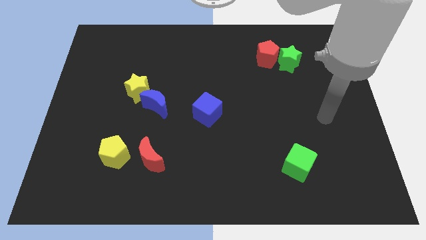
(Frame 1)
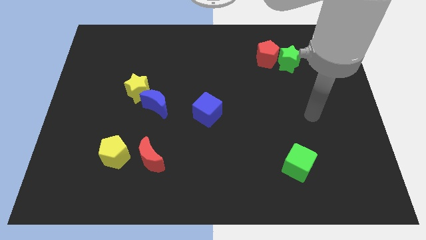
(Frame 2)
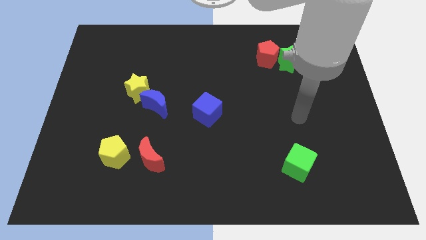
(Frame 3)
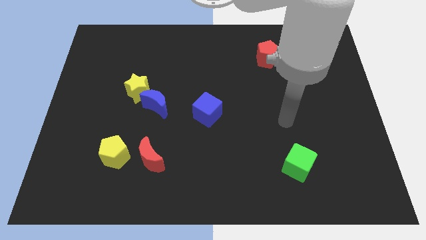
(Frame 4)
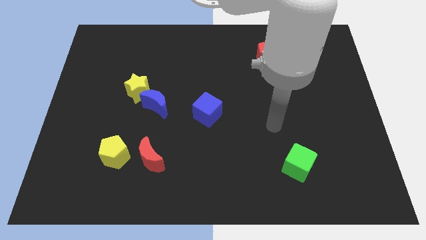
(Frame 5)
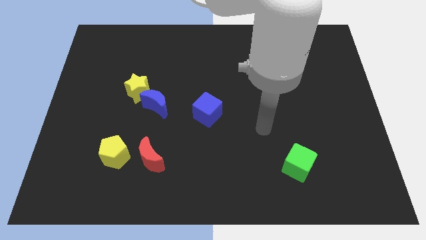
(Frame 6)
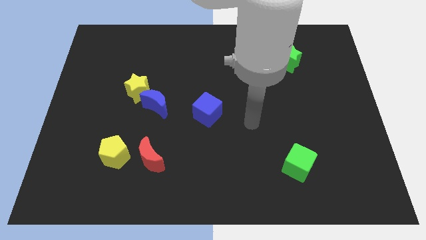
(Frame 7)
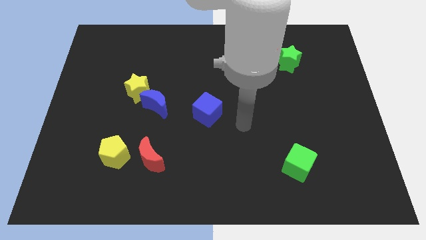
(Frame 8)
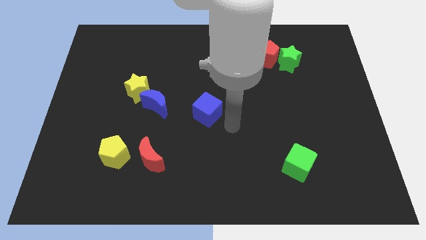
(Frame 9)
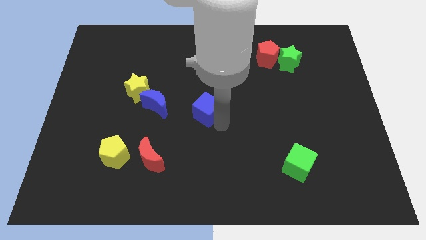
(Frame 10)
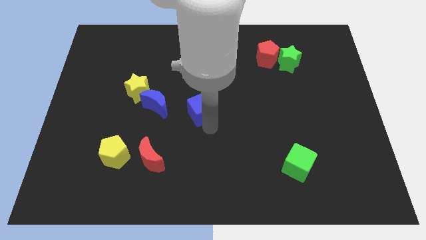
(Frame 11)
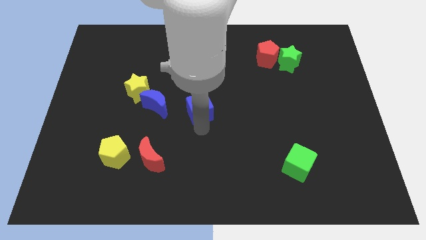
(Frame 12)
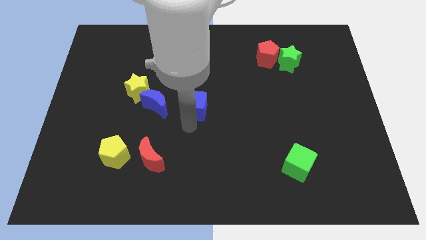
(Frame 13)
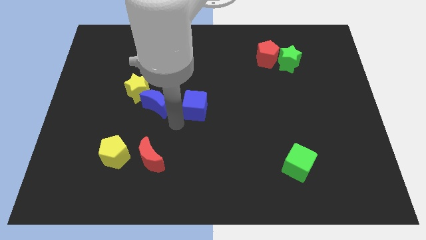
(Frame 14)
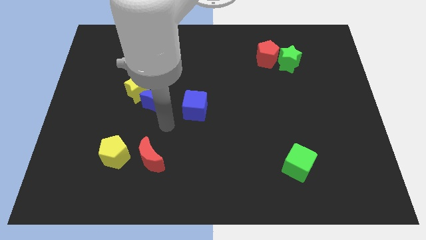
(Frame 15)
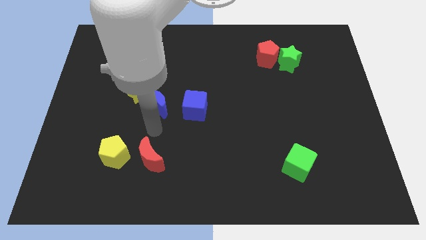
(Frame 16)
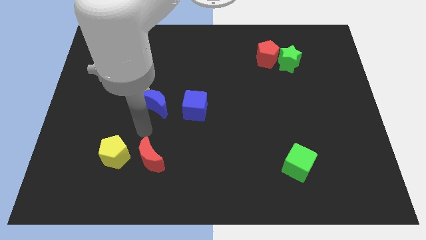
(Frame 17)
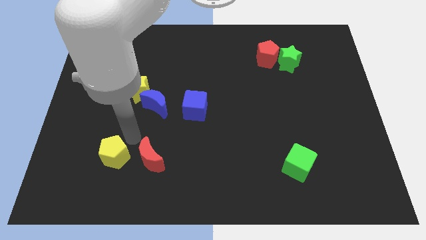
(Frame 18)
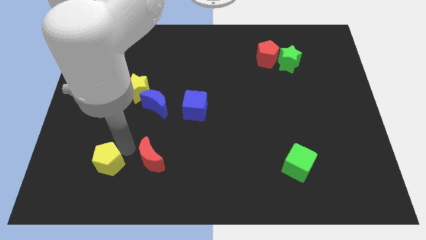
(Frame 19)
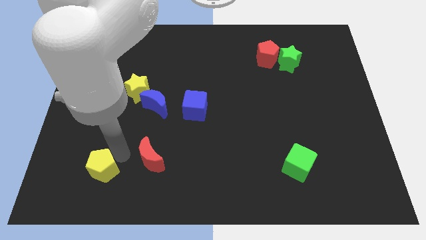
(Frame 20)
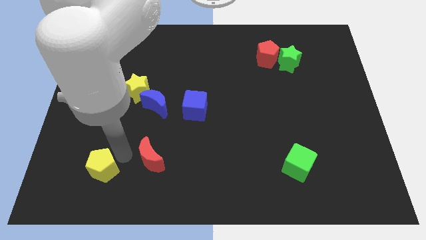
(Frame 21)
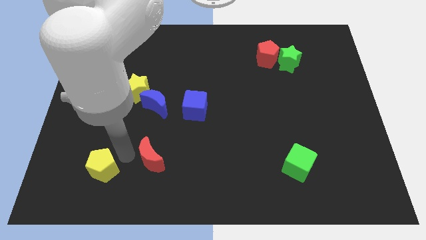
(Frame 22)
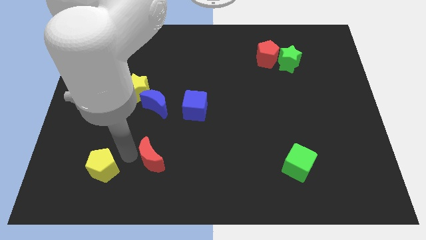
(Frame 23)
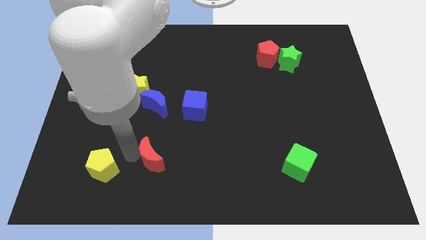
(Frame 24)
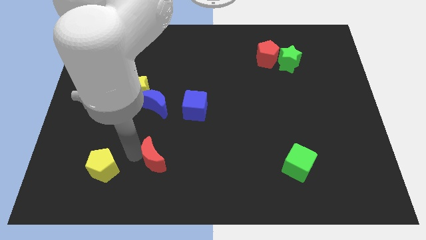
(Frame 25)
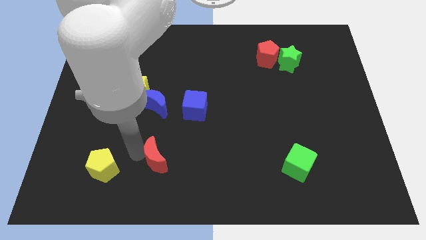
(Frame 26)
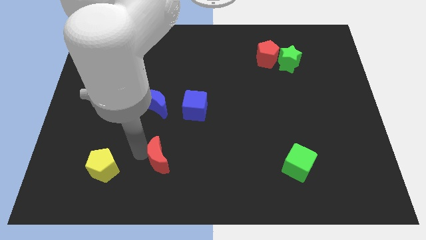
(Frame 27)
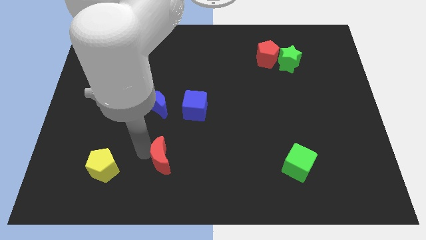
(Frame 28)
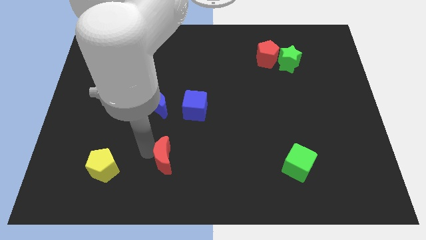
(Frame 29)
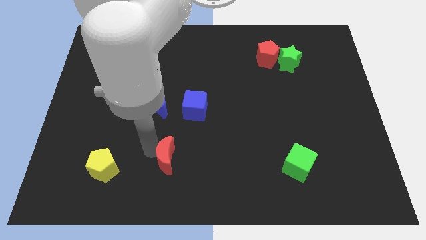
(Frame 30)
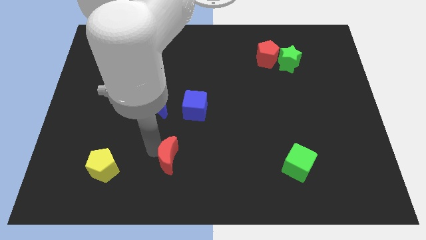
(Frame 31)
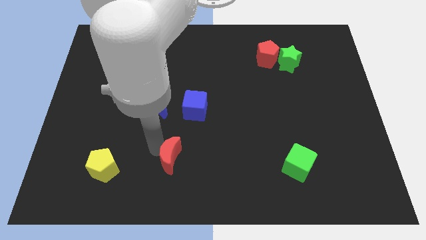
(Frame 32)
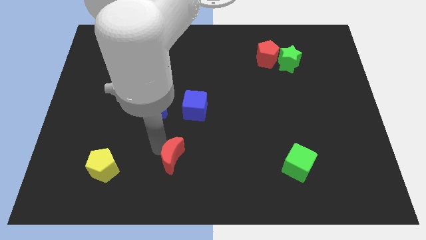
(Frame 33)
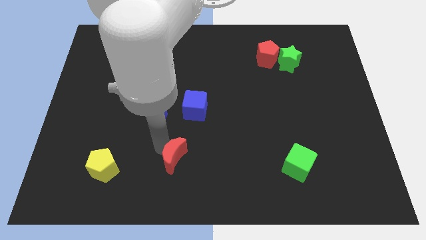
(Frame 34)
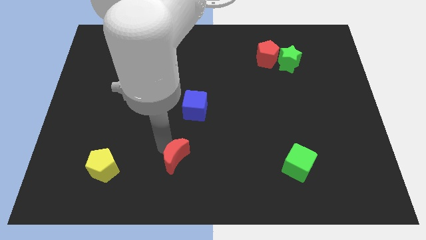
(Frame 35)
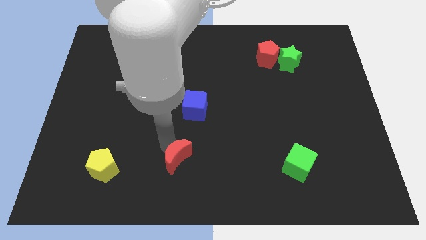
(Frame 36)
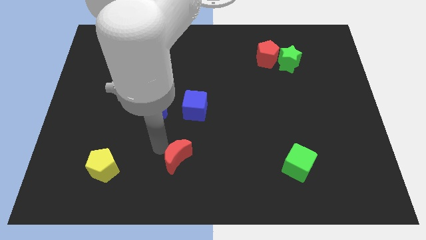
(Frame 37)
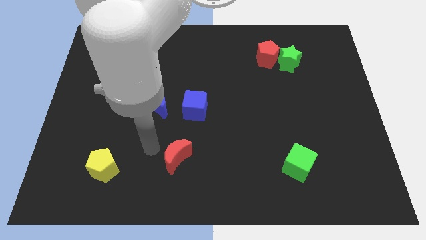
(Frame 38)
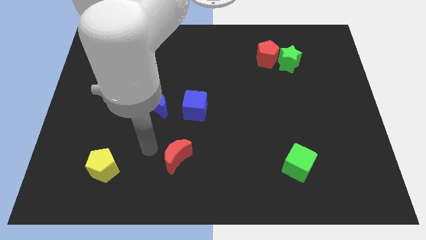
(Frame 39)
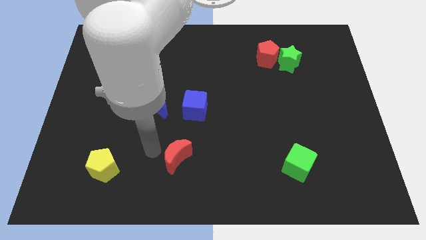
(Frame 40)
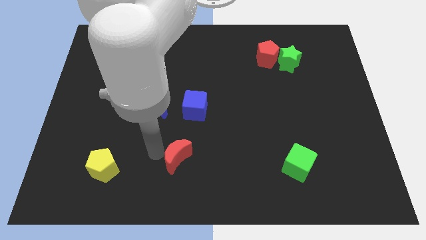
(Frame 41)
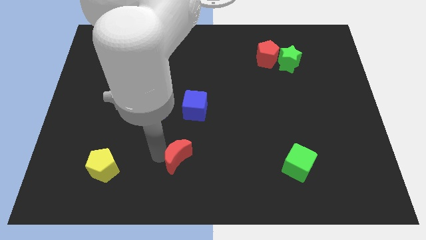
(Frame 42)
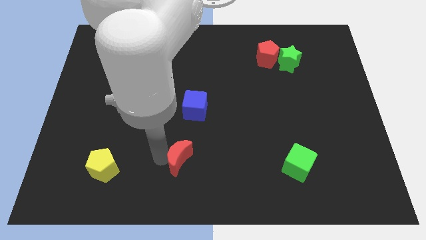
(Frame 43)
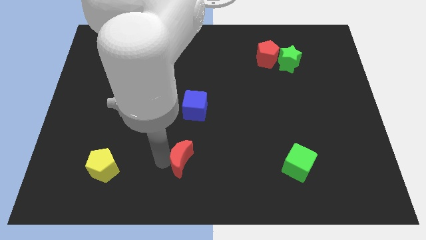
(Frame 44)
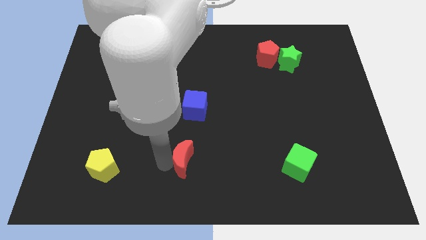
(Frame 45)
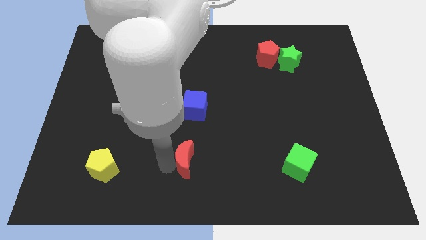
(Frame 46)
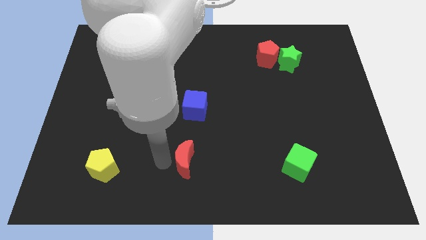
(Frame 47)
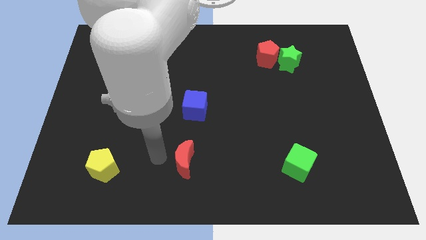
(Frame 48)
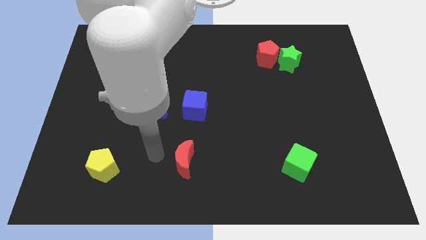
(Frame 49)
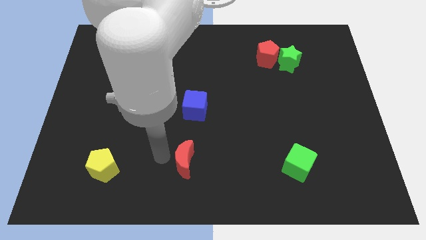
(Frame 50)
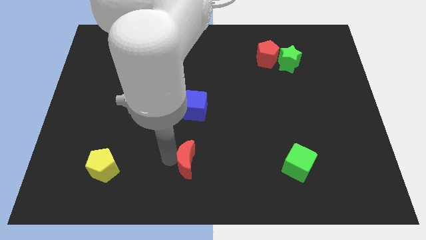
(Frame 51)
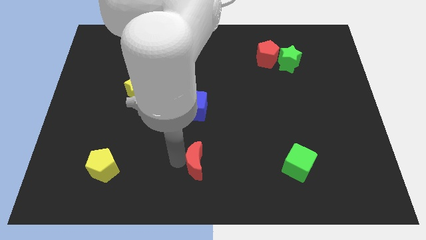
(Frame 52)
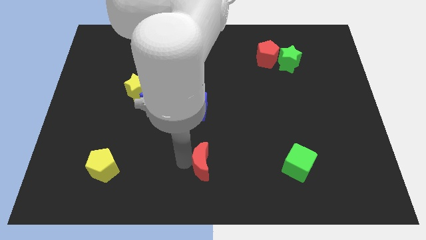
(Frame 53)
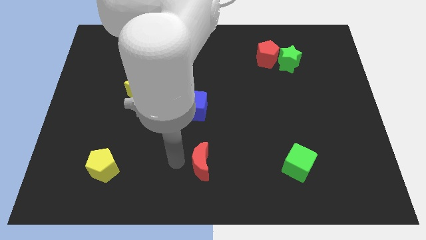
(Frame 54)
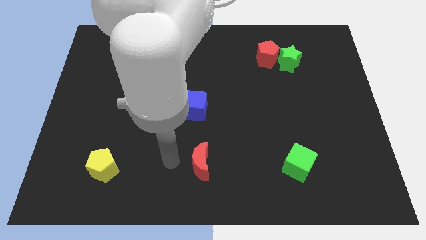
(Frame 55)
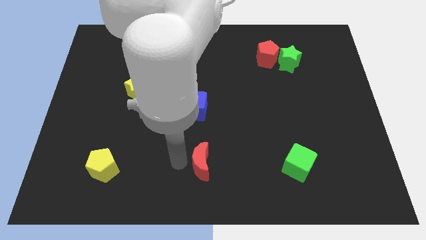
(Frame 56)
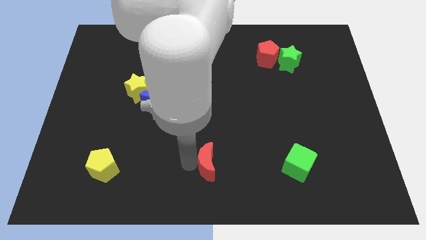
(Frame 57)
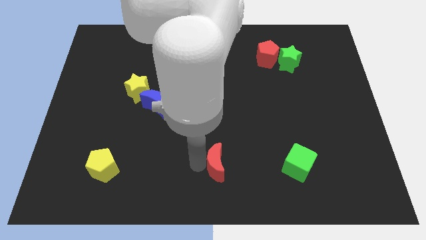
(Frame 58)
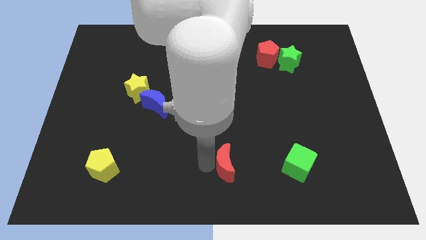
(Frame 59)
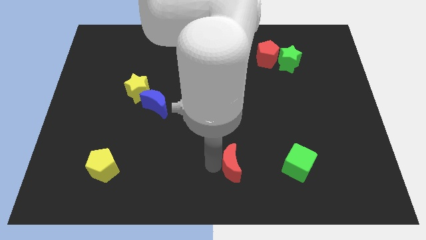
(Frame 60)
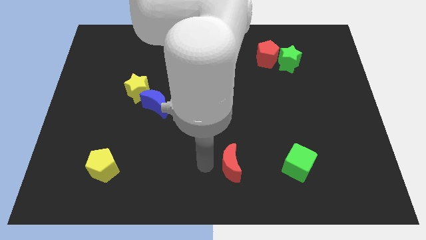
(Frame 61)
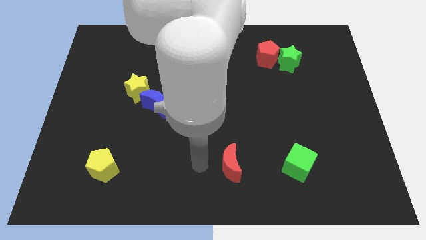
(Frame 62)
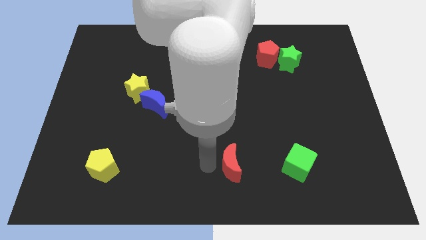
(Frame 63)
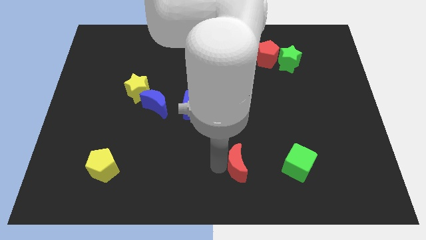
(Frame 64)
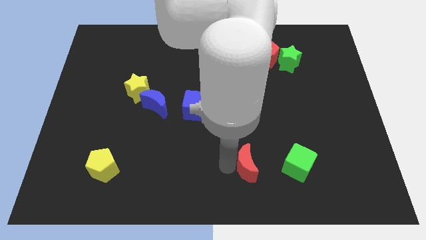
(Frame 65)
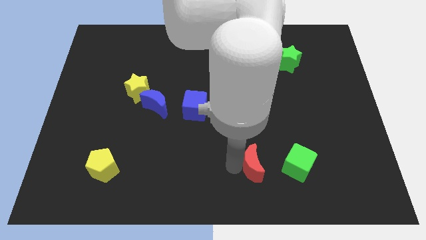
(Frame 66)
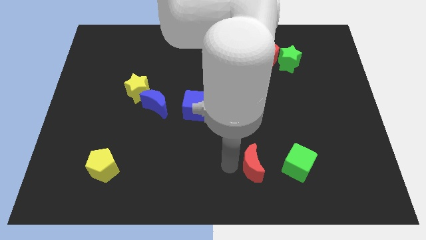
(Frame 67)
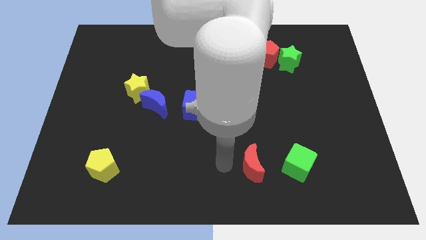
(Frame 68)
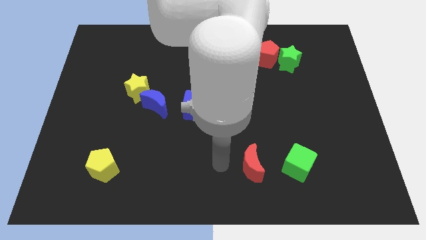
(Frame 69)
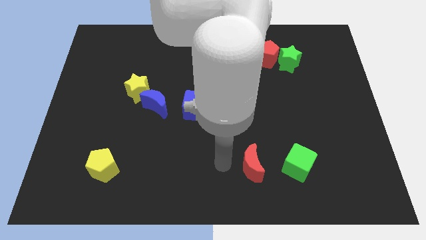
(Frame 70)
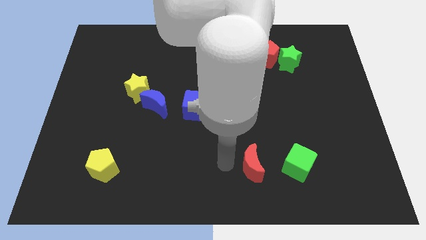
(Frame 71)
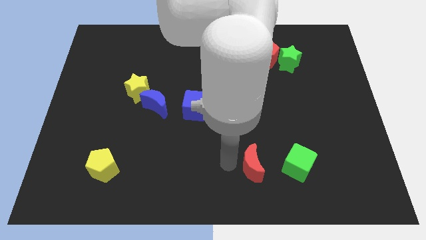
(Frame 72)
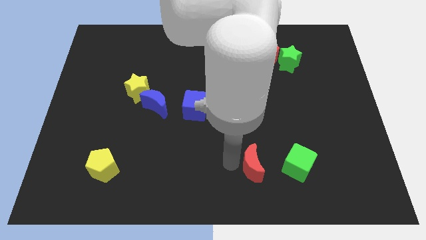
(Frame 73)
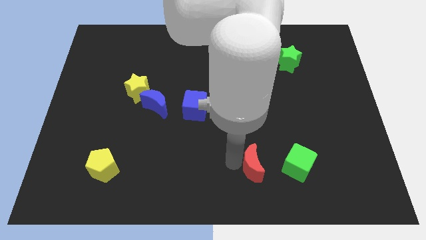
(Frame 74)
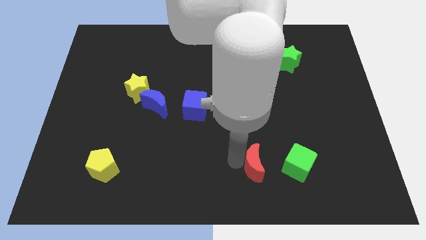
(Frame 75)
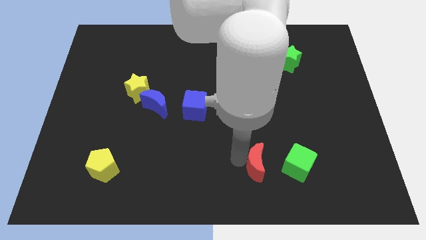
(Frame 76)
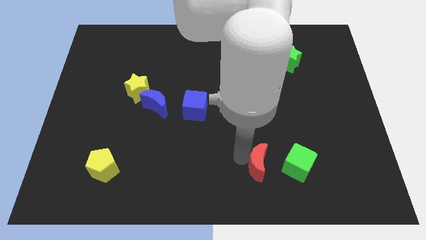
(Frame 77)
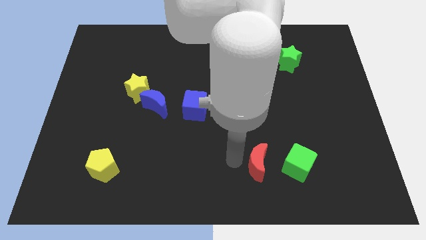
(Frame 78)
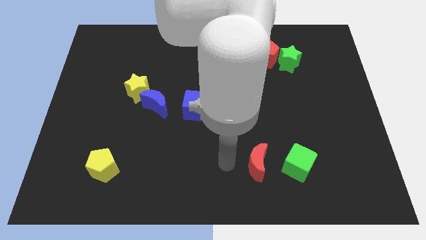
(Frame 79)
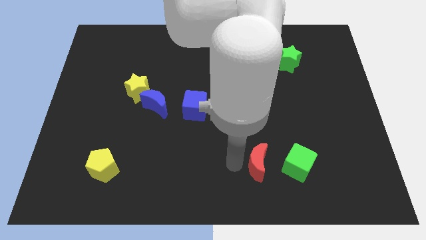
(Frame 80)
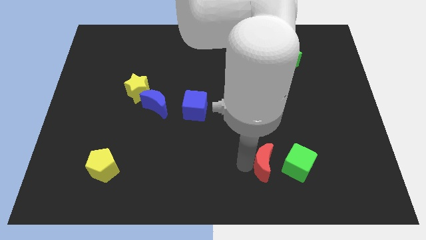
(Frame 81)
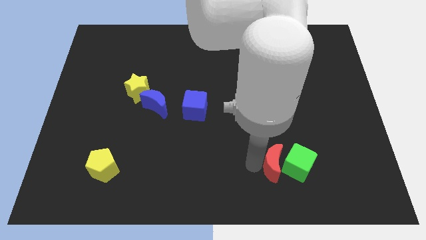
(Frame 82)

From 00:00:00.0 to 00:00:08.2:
move the red moon close to the green cube
